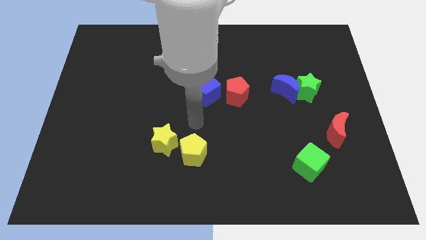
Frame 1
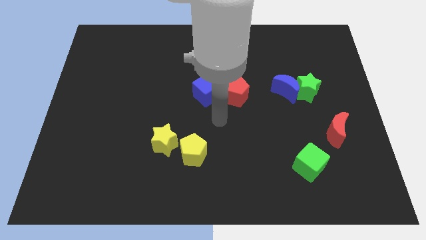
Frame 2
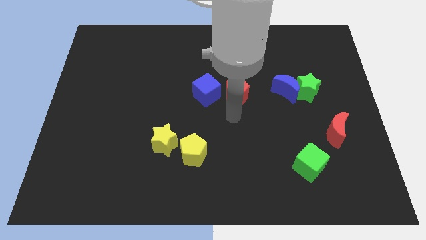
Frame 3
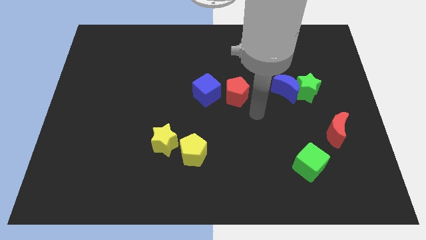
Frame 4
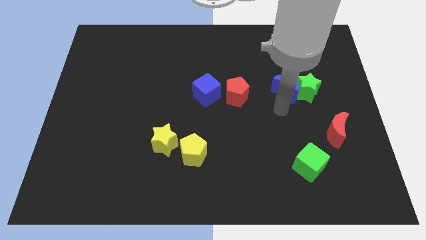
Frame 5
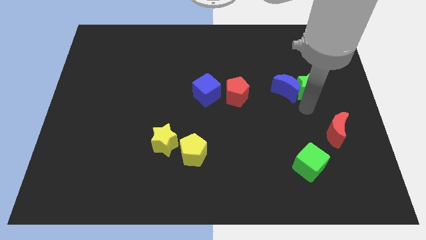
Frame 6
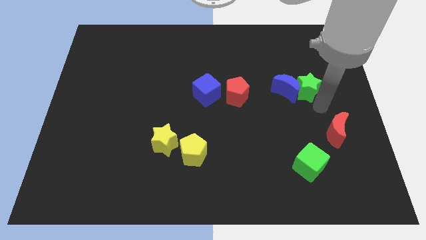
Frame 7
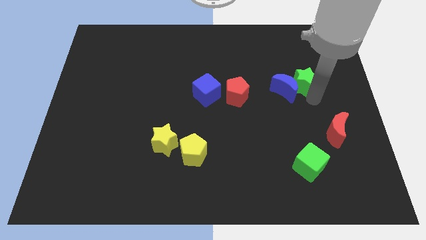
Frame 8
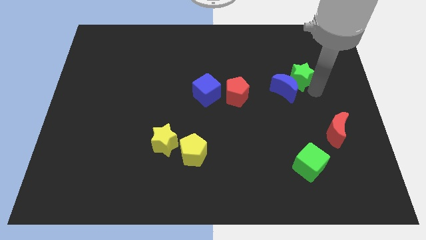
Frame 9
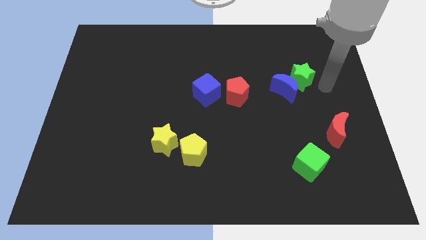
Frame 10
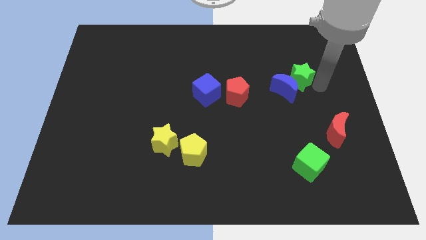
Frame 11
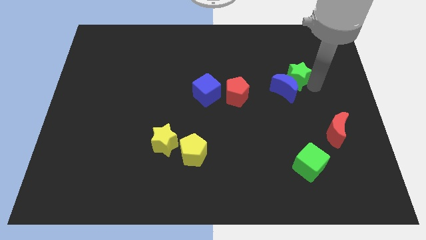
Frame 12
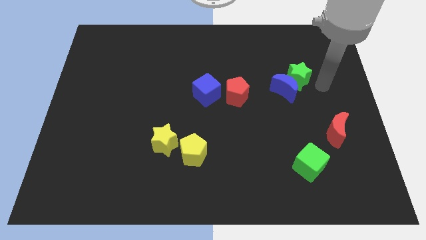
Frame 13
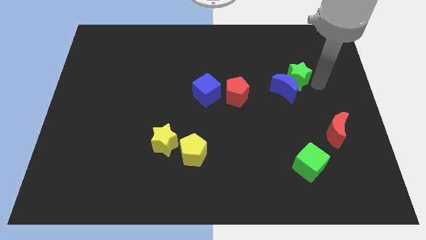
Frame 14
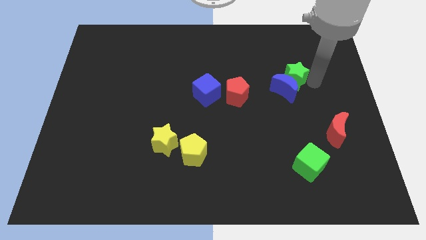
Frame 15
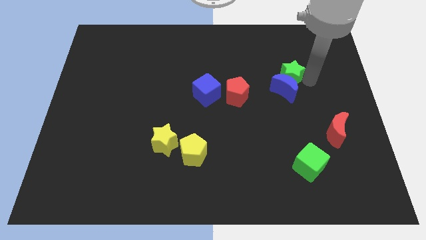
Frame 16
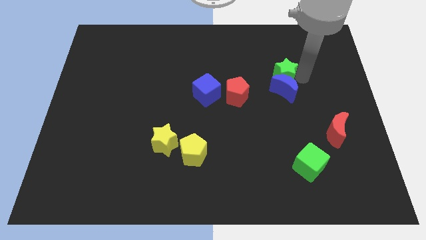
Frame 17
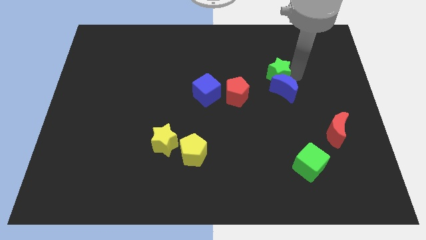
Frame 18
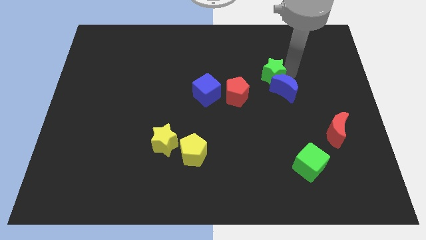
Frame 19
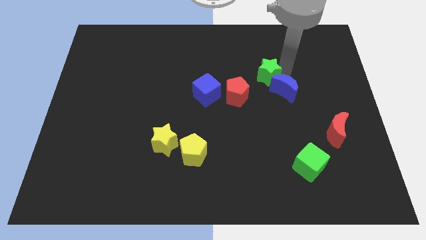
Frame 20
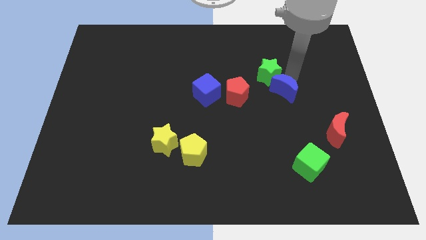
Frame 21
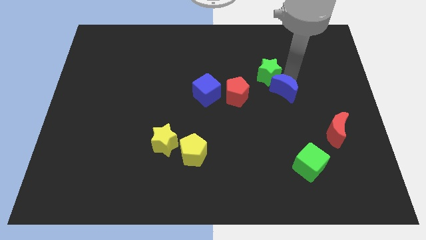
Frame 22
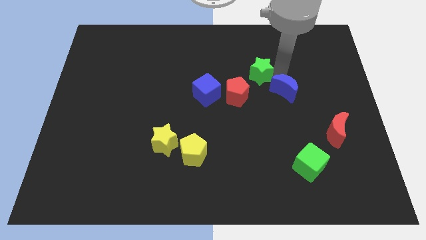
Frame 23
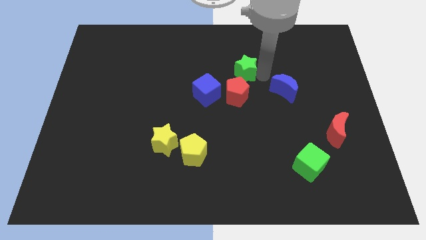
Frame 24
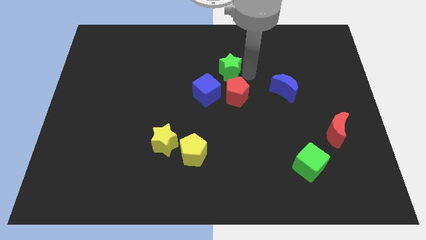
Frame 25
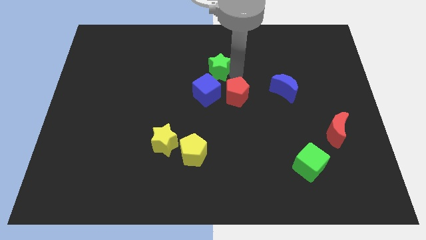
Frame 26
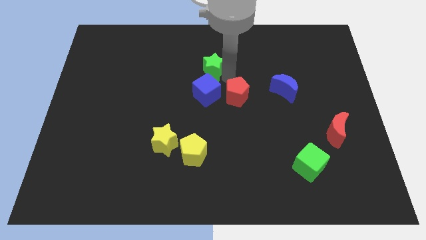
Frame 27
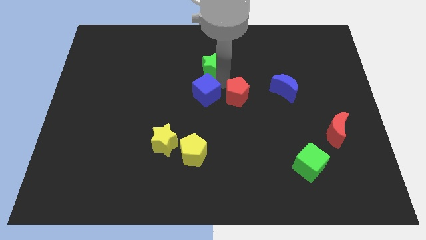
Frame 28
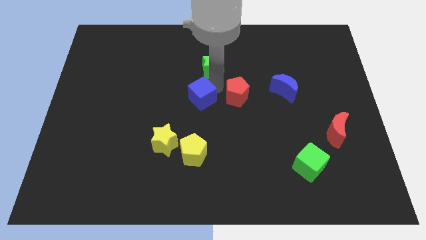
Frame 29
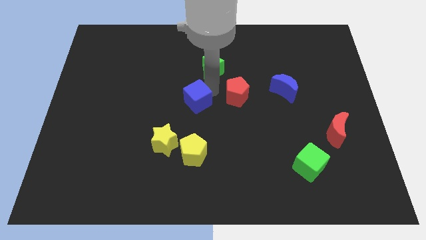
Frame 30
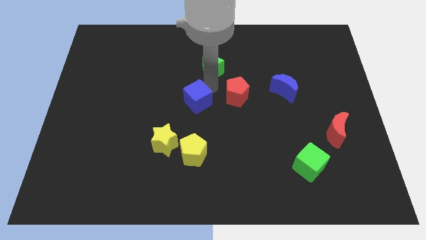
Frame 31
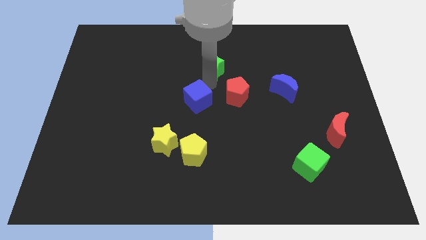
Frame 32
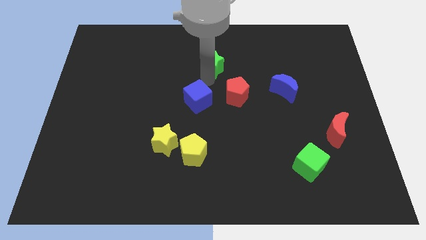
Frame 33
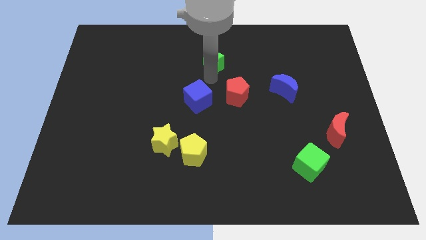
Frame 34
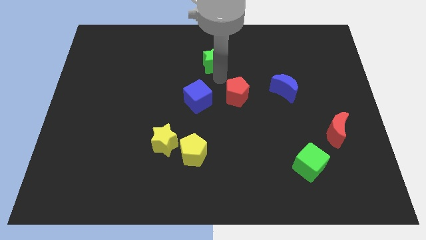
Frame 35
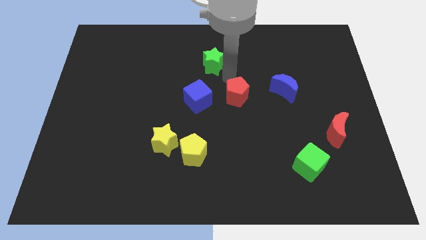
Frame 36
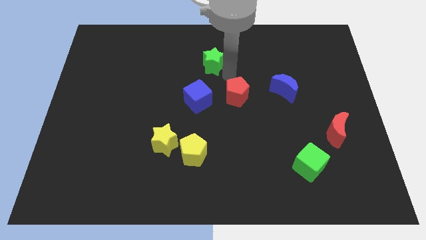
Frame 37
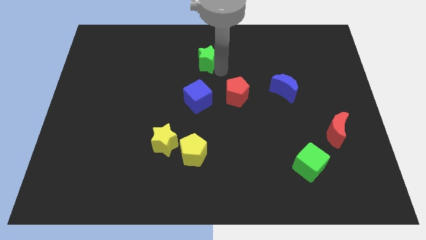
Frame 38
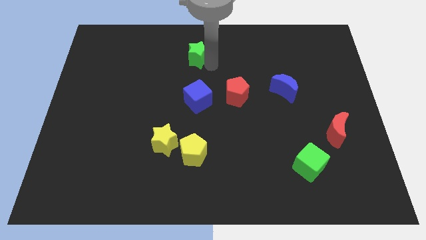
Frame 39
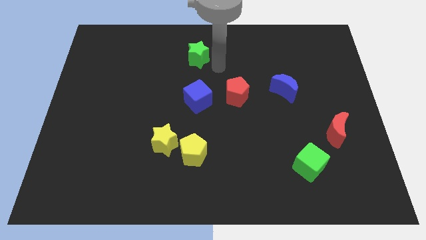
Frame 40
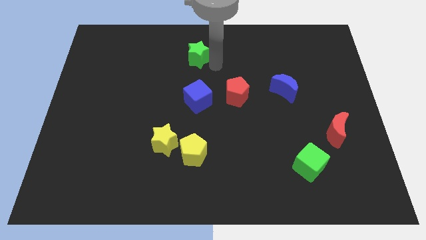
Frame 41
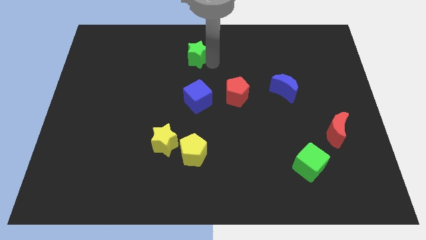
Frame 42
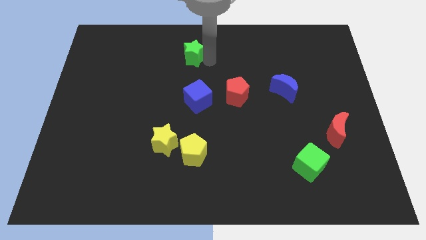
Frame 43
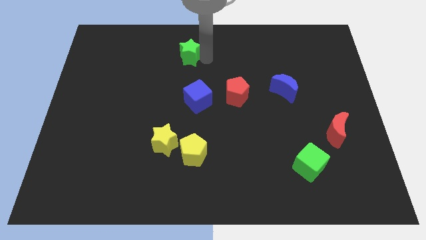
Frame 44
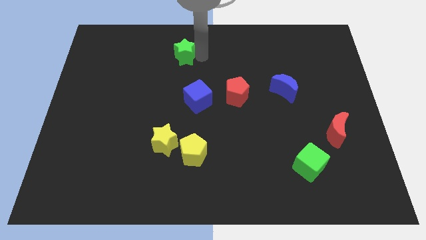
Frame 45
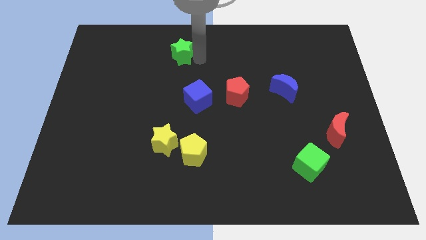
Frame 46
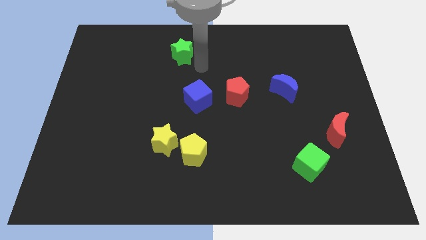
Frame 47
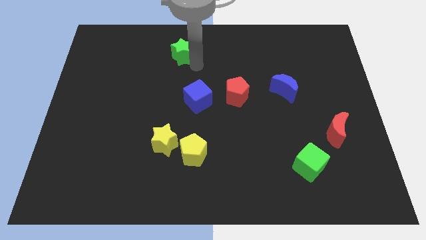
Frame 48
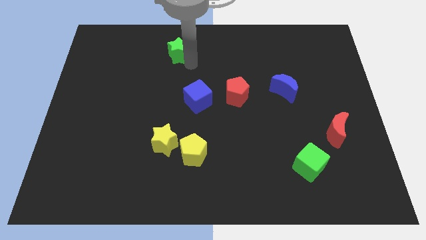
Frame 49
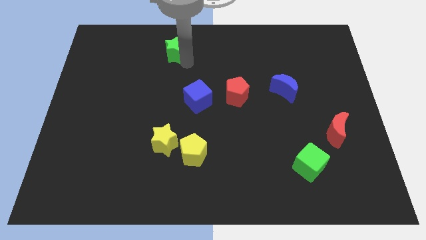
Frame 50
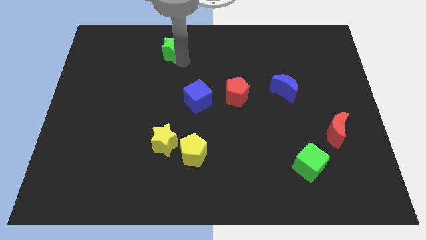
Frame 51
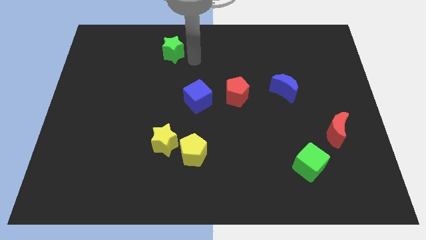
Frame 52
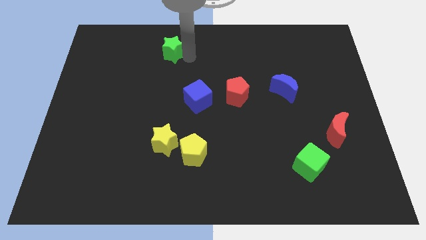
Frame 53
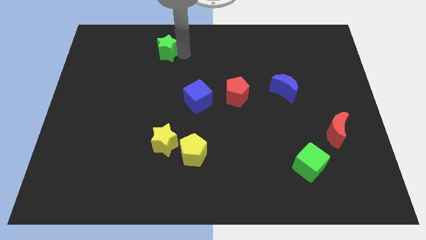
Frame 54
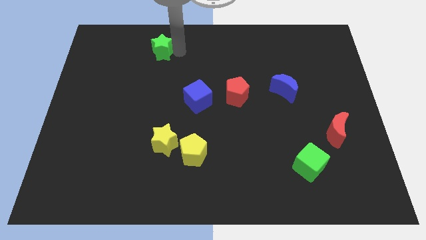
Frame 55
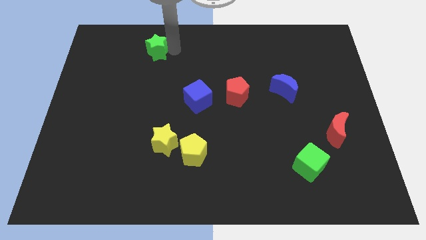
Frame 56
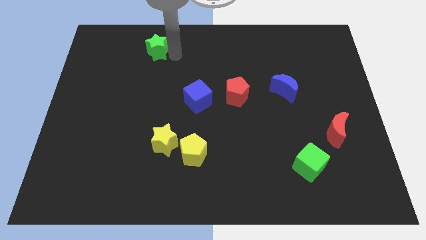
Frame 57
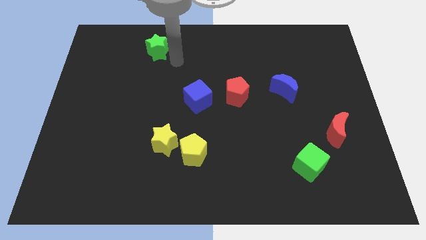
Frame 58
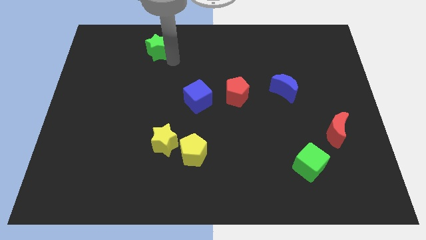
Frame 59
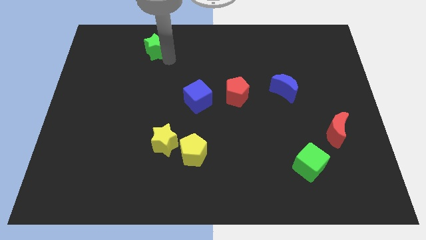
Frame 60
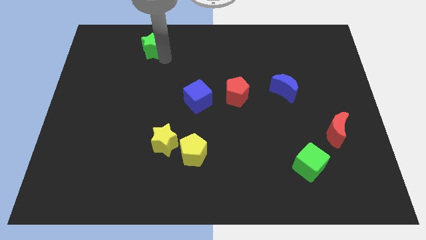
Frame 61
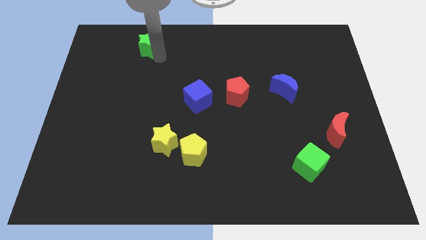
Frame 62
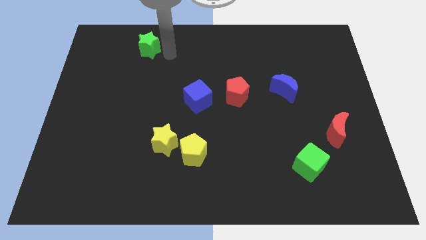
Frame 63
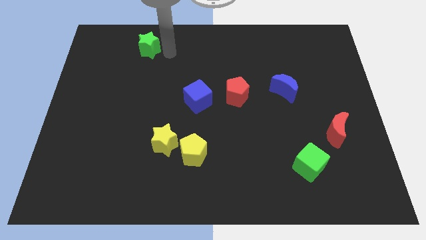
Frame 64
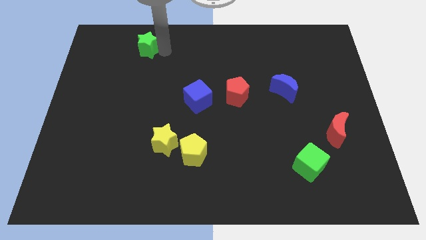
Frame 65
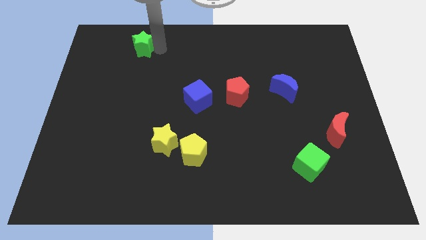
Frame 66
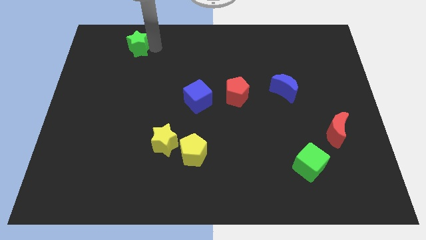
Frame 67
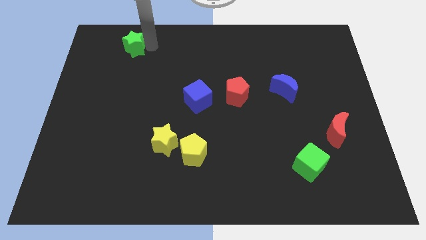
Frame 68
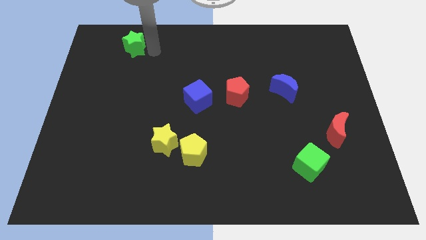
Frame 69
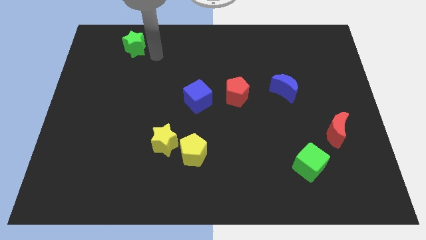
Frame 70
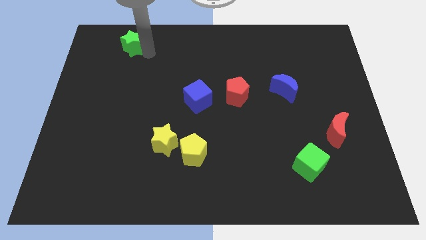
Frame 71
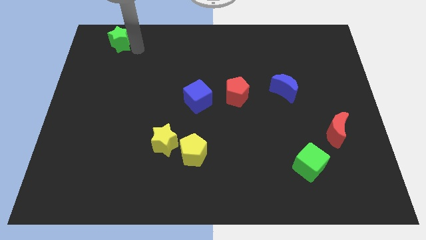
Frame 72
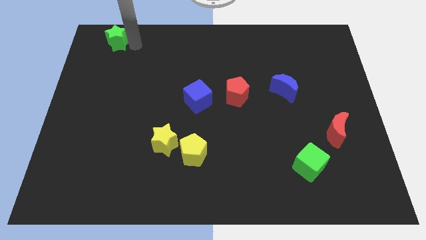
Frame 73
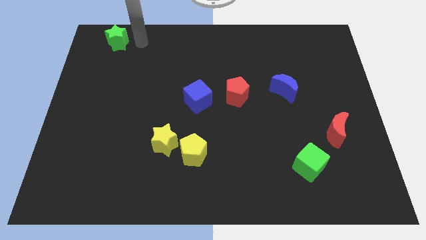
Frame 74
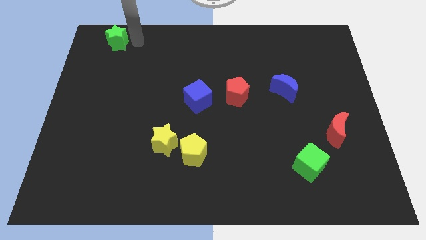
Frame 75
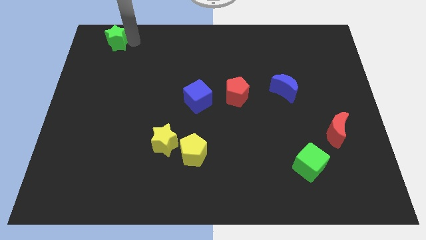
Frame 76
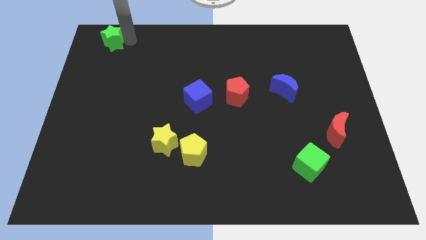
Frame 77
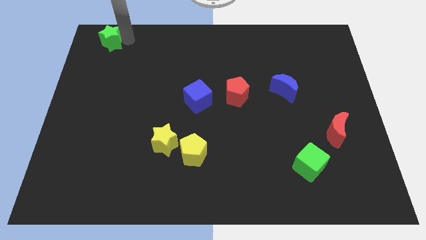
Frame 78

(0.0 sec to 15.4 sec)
put the green star to the top left corner
